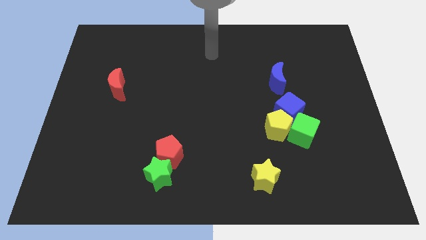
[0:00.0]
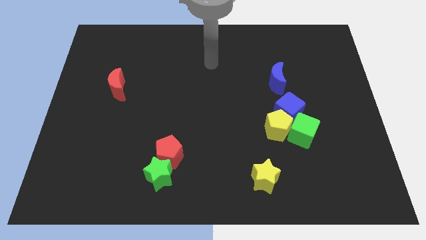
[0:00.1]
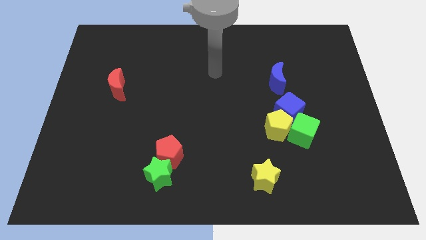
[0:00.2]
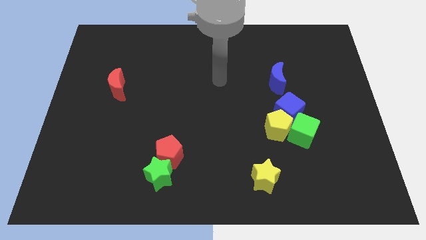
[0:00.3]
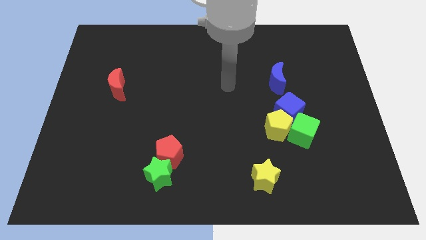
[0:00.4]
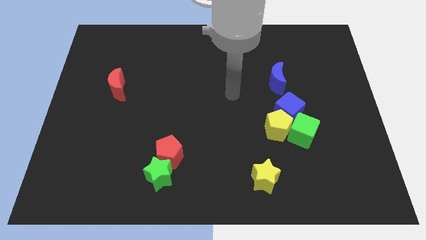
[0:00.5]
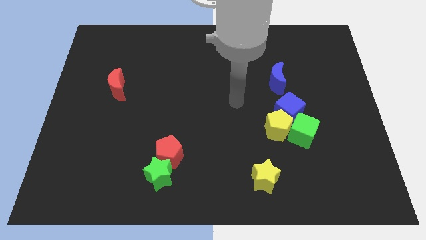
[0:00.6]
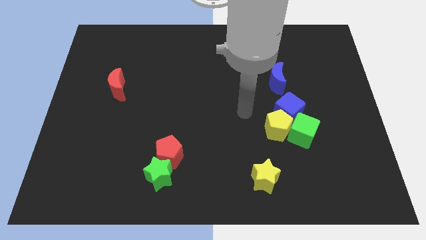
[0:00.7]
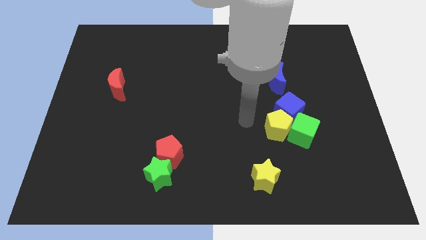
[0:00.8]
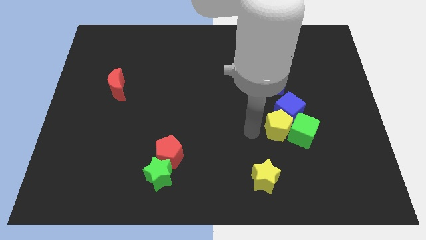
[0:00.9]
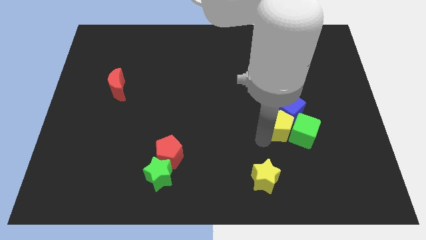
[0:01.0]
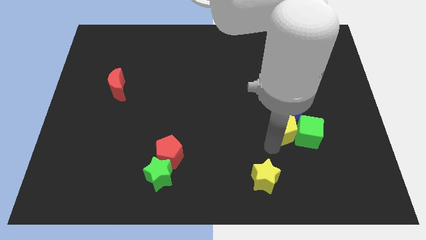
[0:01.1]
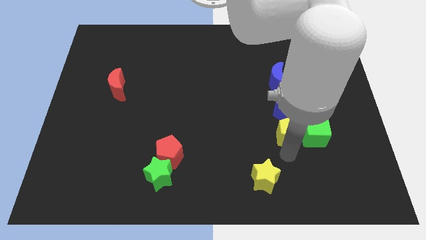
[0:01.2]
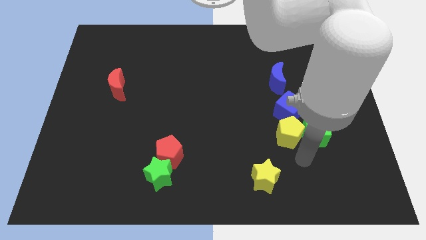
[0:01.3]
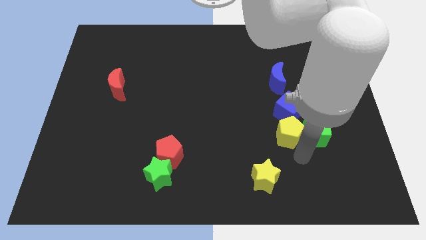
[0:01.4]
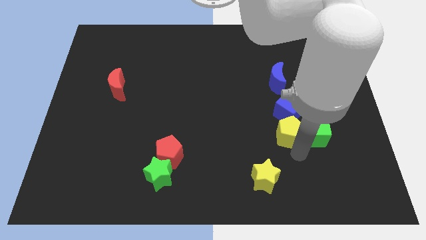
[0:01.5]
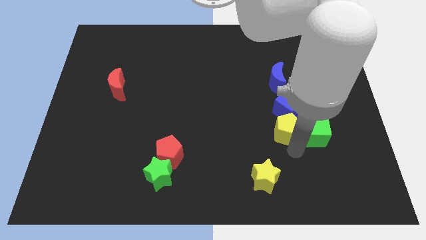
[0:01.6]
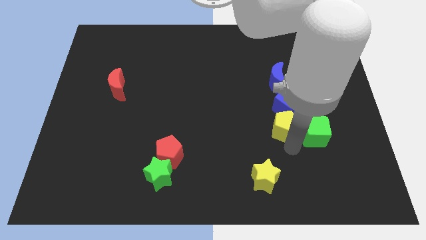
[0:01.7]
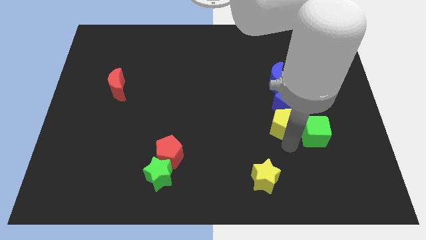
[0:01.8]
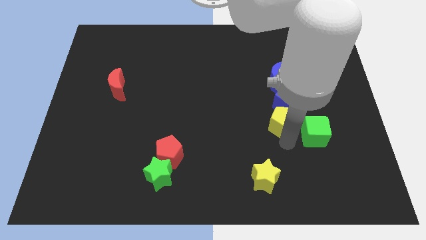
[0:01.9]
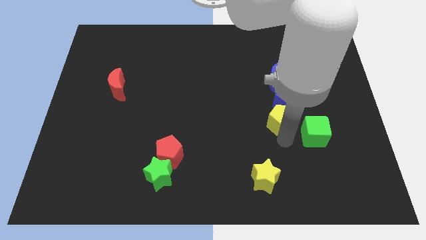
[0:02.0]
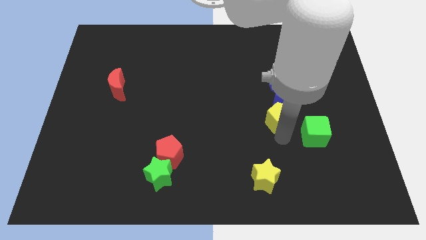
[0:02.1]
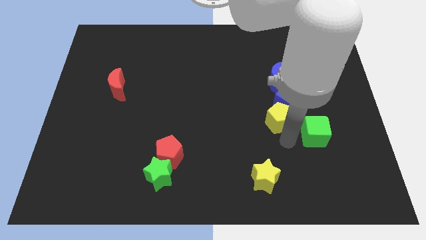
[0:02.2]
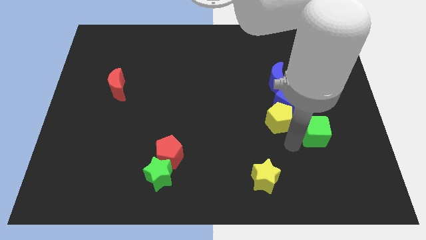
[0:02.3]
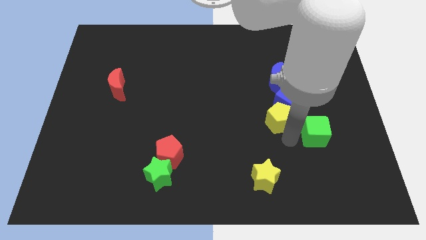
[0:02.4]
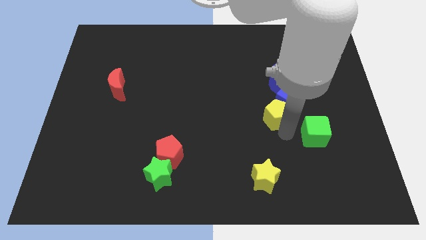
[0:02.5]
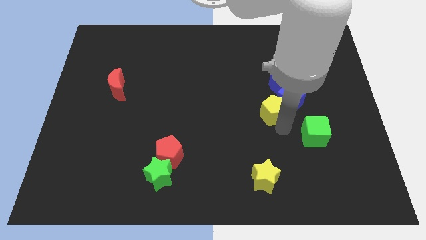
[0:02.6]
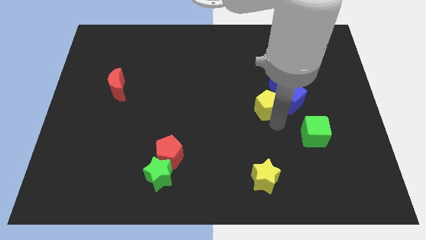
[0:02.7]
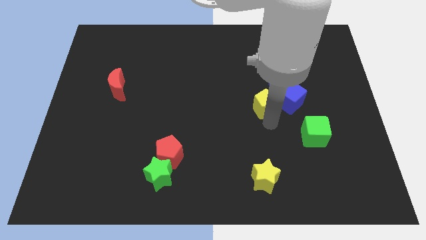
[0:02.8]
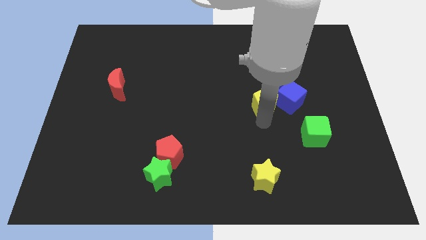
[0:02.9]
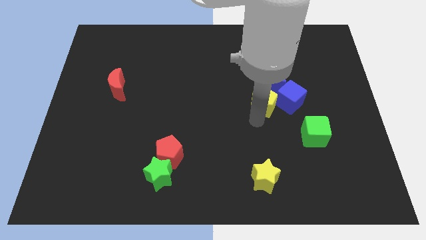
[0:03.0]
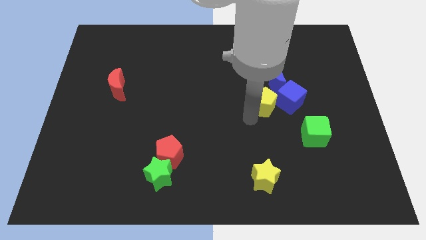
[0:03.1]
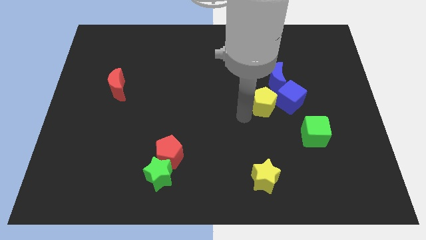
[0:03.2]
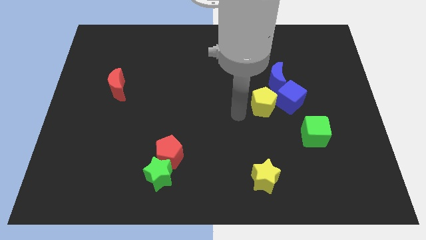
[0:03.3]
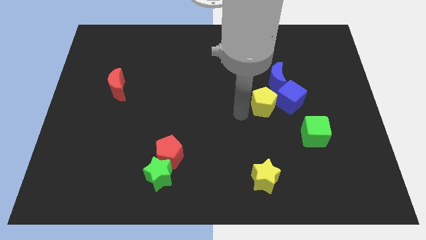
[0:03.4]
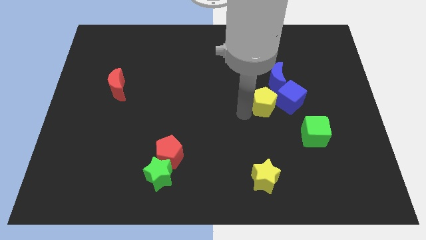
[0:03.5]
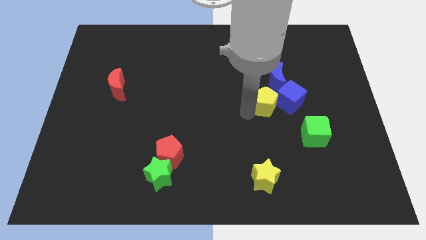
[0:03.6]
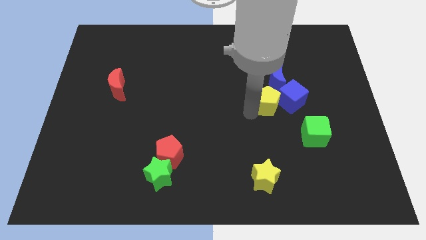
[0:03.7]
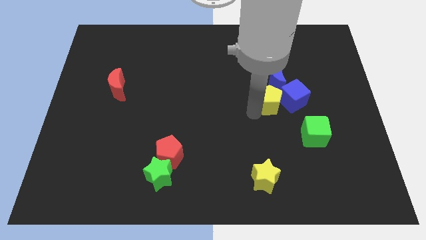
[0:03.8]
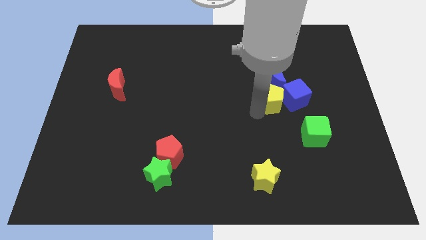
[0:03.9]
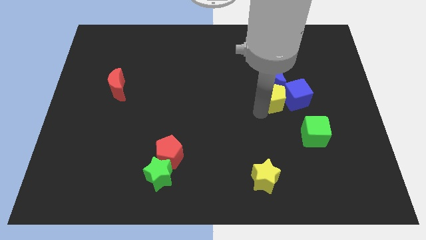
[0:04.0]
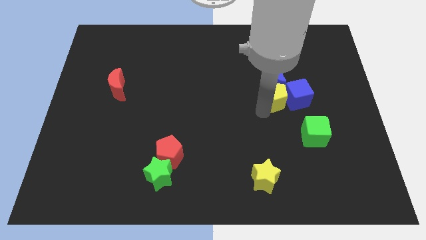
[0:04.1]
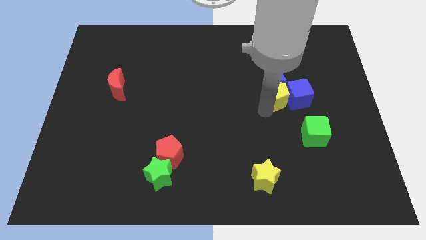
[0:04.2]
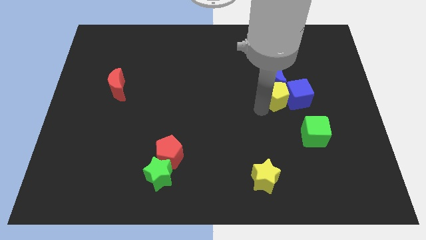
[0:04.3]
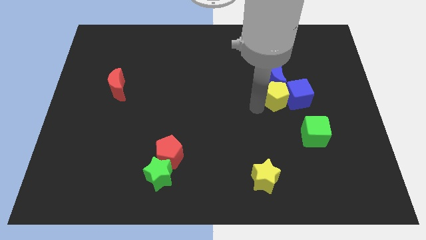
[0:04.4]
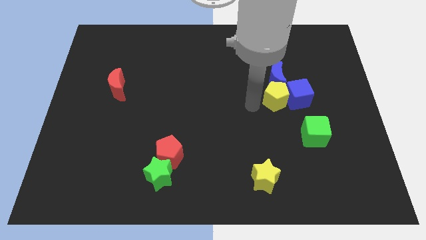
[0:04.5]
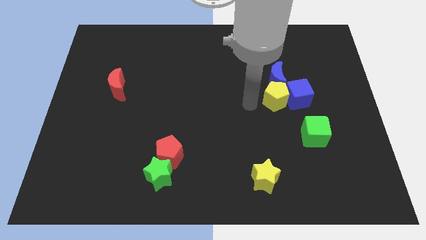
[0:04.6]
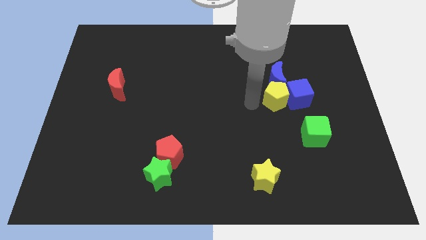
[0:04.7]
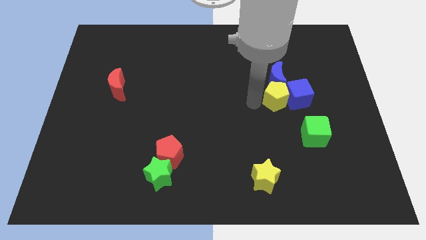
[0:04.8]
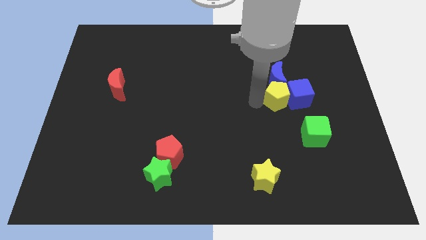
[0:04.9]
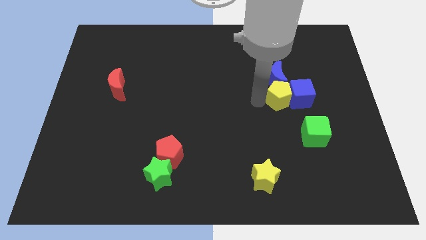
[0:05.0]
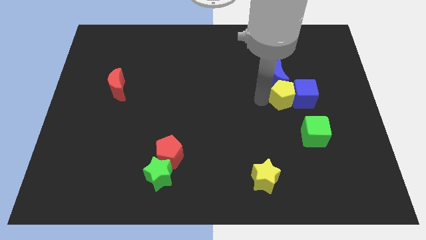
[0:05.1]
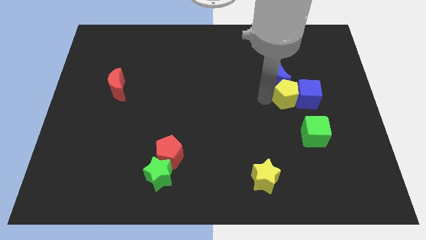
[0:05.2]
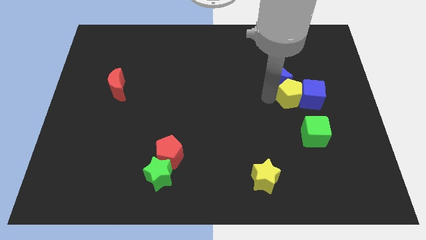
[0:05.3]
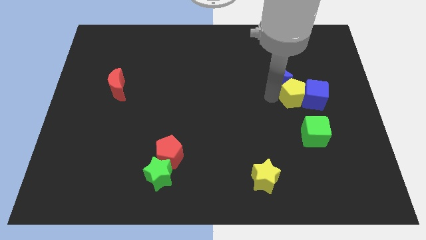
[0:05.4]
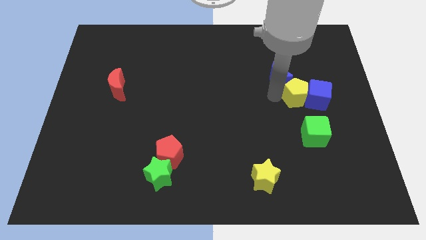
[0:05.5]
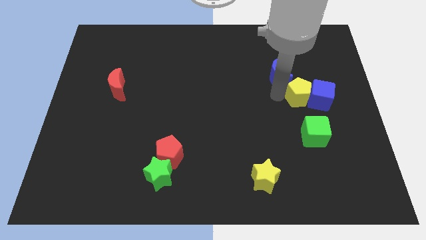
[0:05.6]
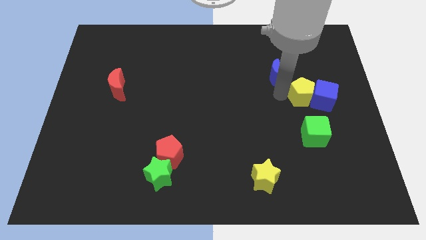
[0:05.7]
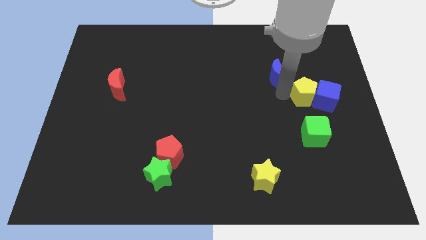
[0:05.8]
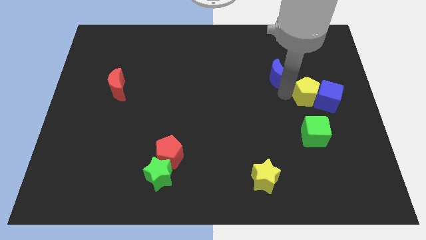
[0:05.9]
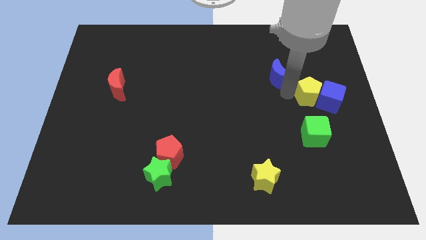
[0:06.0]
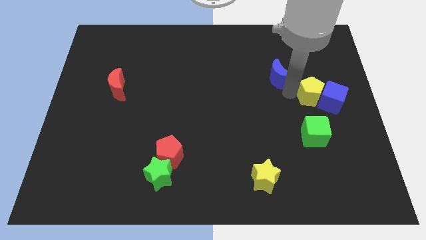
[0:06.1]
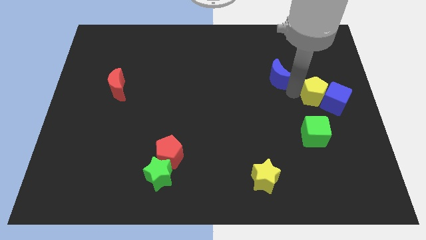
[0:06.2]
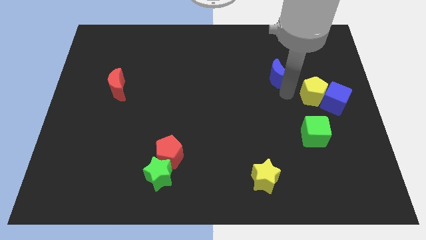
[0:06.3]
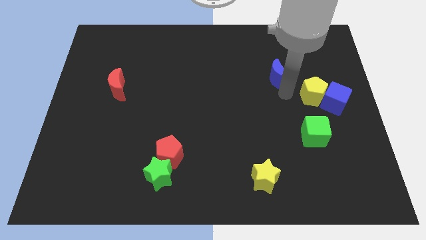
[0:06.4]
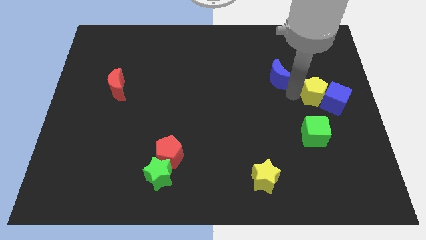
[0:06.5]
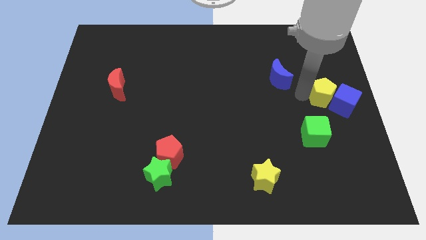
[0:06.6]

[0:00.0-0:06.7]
push the yellow pentagon to the right side
